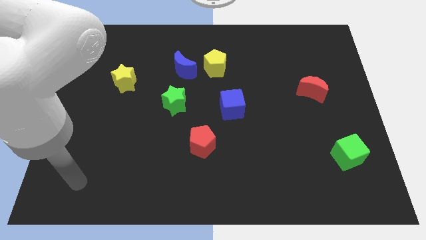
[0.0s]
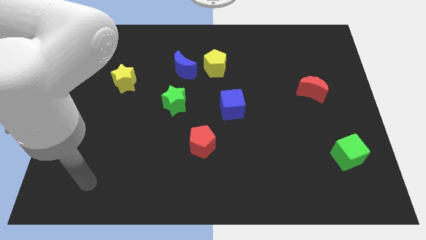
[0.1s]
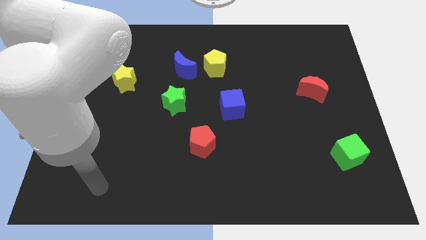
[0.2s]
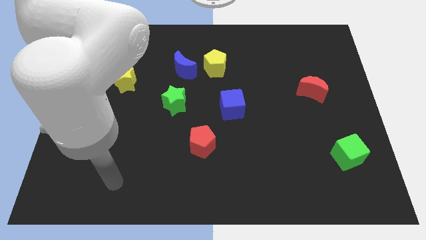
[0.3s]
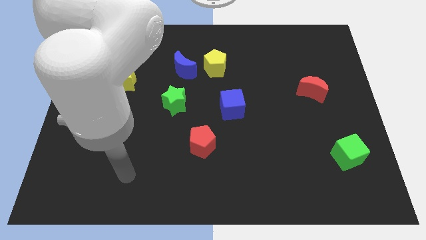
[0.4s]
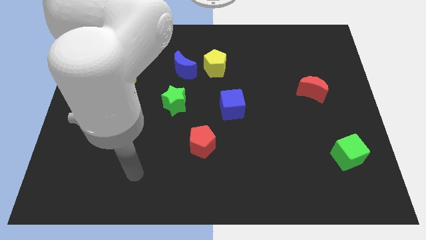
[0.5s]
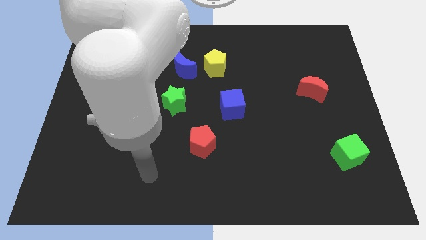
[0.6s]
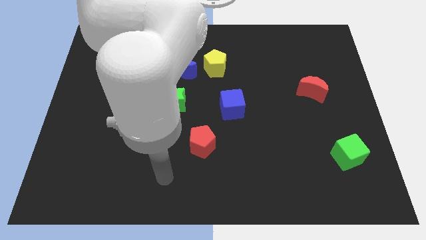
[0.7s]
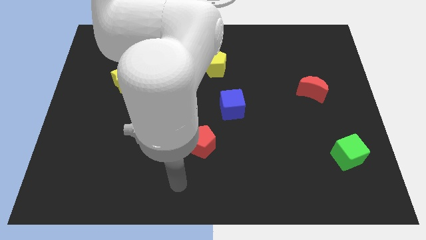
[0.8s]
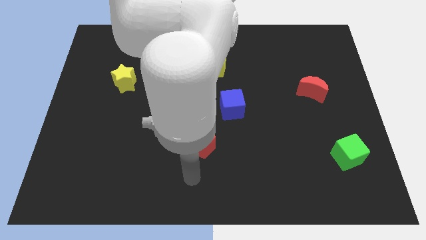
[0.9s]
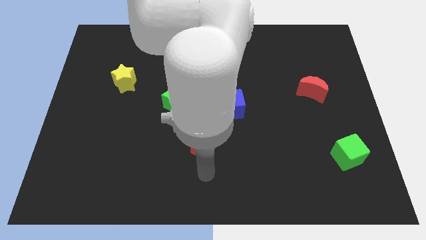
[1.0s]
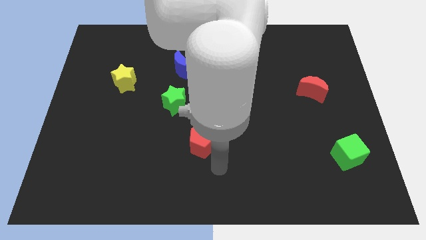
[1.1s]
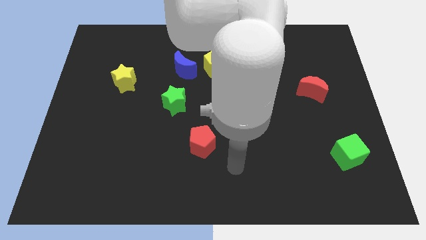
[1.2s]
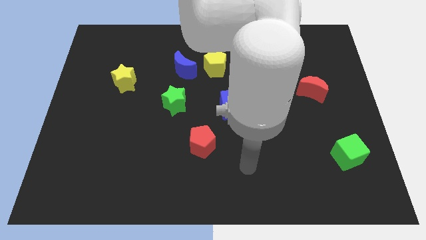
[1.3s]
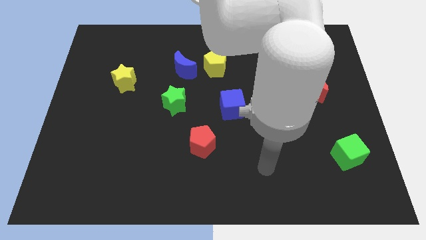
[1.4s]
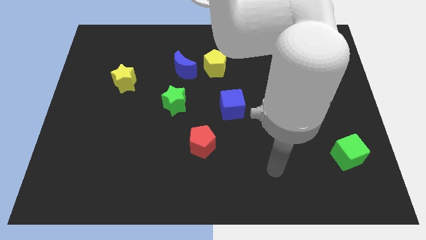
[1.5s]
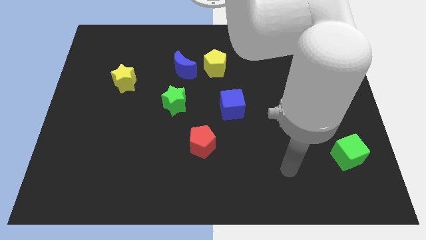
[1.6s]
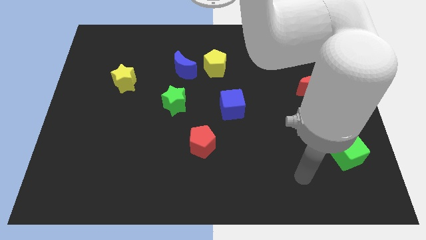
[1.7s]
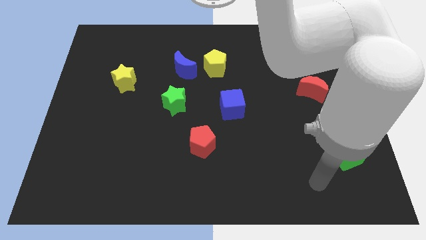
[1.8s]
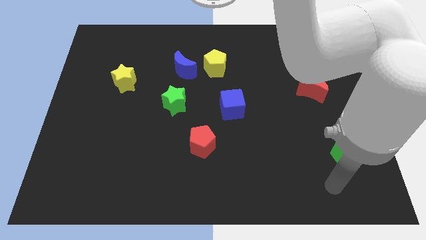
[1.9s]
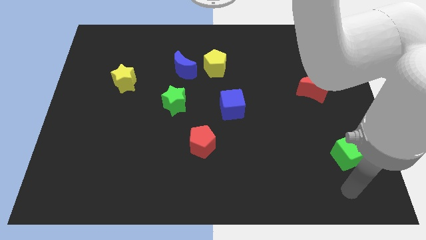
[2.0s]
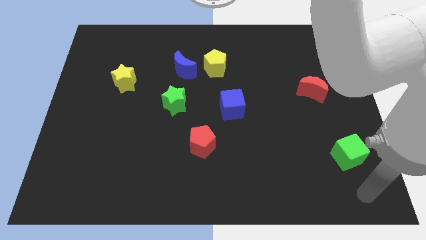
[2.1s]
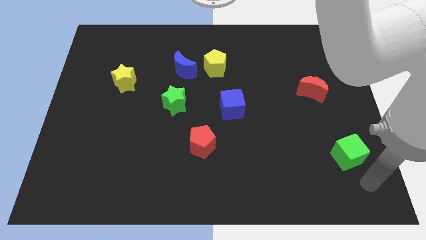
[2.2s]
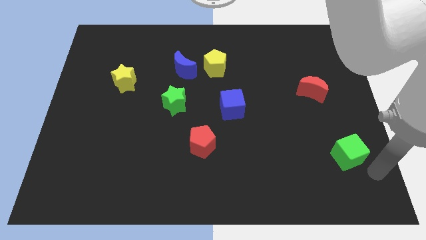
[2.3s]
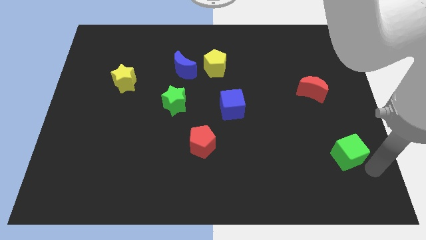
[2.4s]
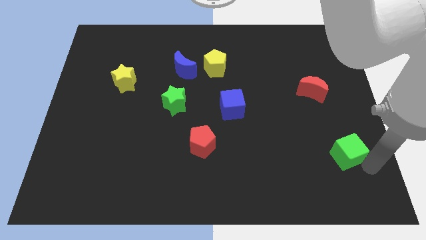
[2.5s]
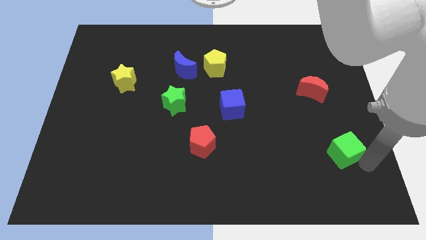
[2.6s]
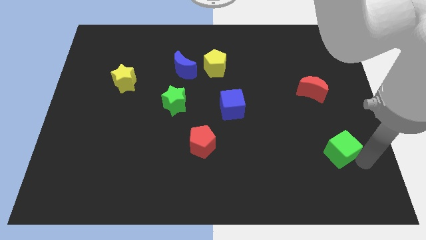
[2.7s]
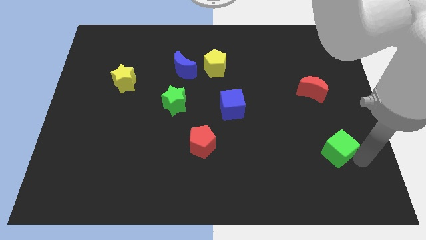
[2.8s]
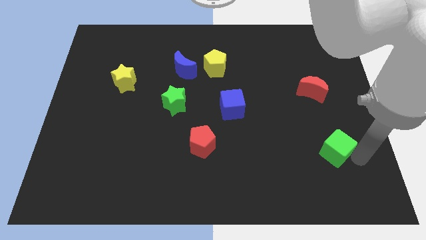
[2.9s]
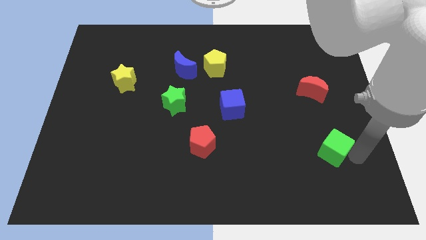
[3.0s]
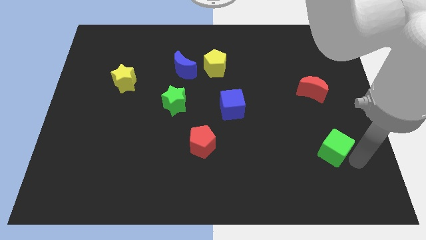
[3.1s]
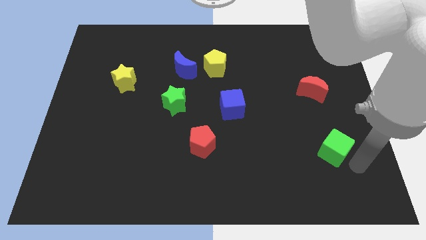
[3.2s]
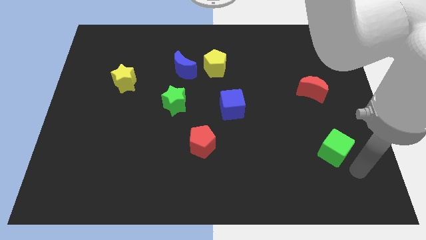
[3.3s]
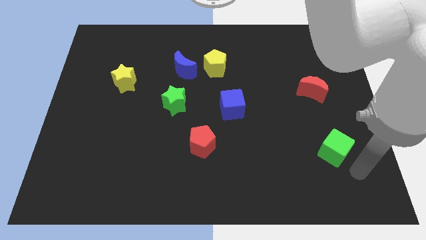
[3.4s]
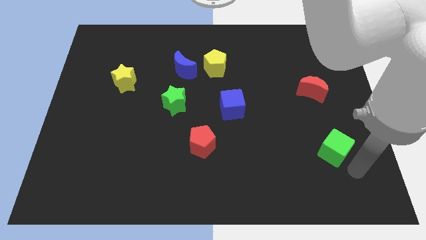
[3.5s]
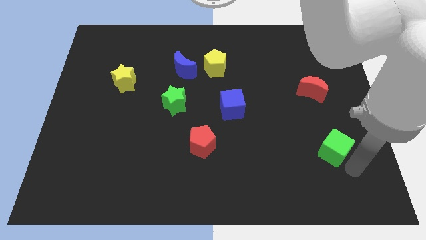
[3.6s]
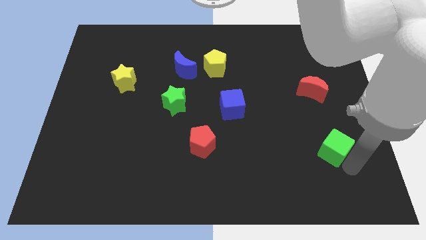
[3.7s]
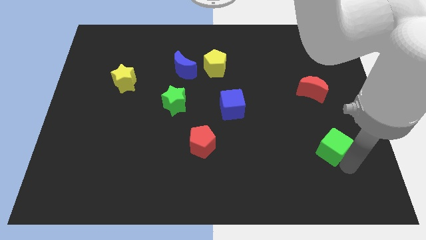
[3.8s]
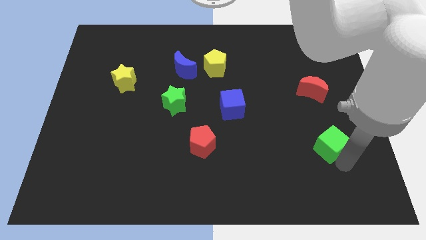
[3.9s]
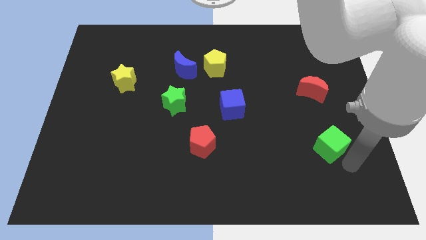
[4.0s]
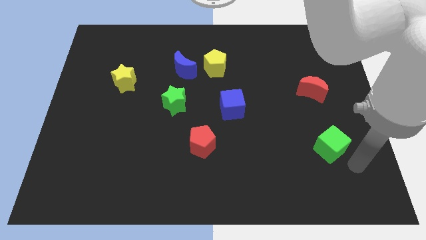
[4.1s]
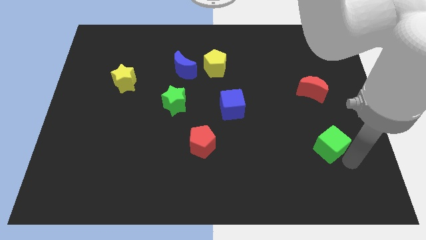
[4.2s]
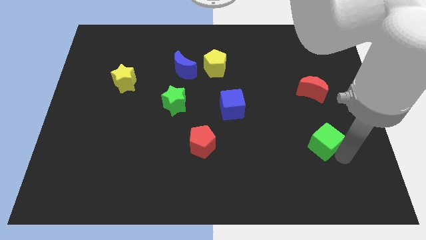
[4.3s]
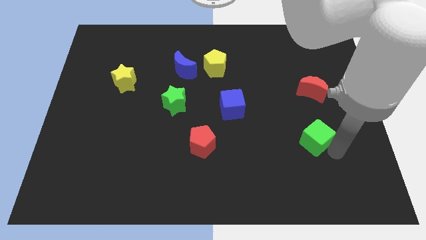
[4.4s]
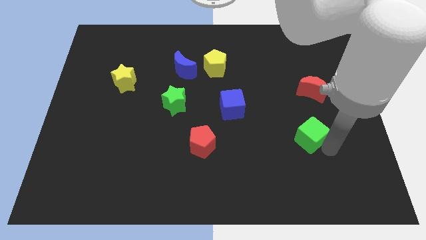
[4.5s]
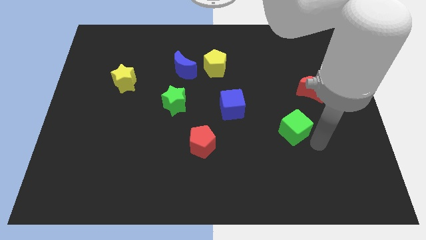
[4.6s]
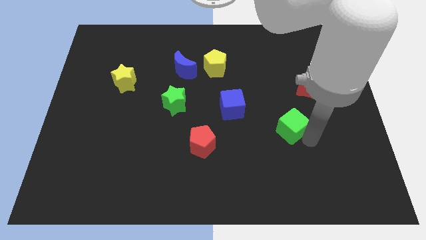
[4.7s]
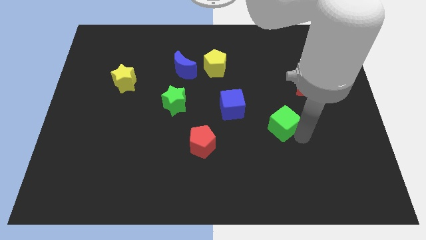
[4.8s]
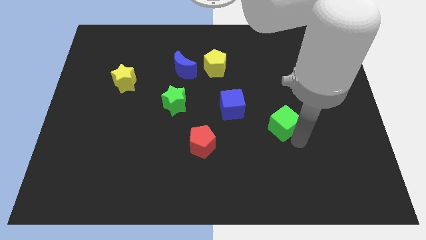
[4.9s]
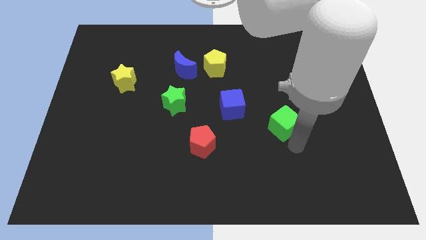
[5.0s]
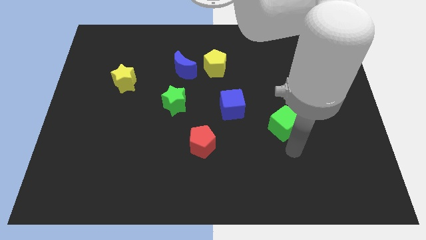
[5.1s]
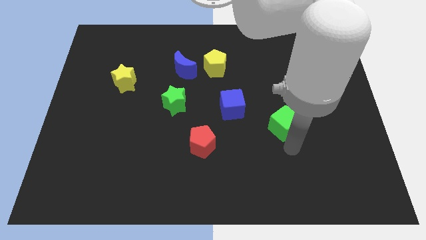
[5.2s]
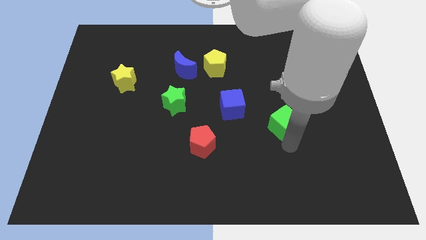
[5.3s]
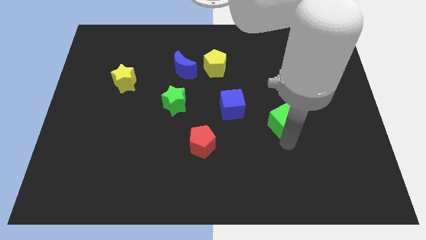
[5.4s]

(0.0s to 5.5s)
move the green cube to the right side of the blue cube

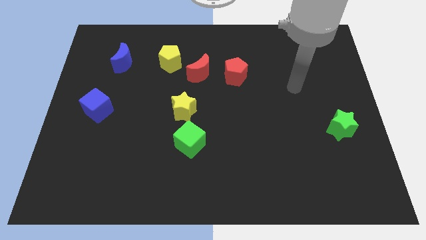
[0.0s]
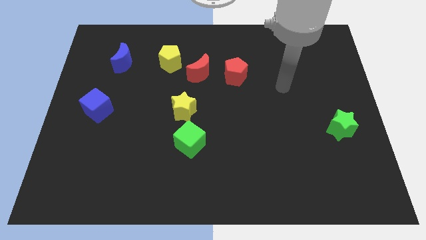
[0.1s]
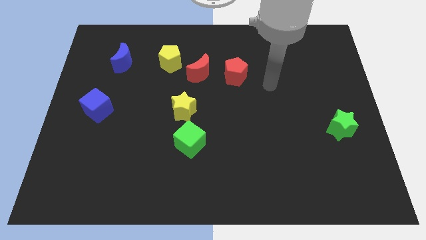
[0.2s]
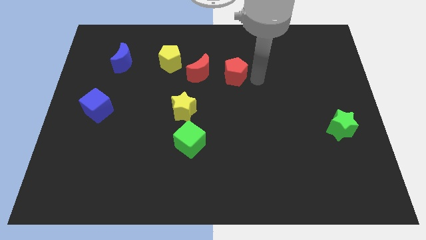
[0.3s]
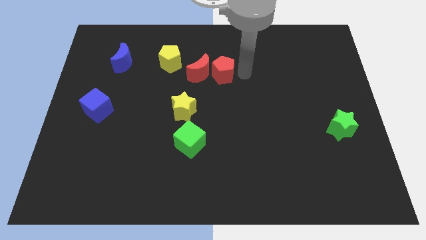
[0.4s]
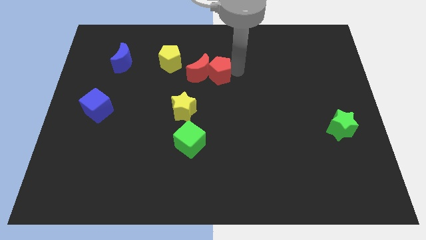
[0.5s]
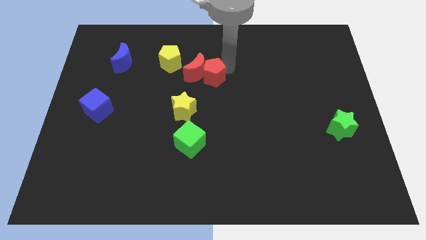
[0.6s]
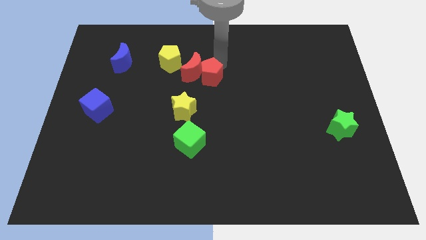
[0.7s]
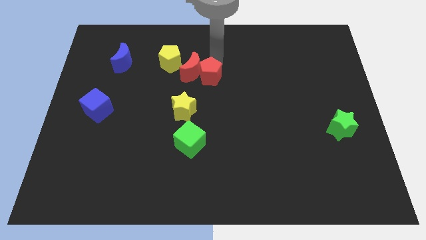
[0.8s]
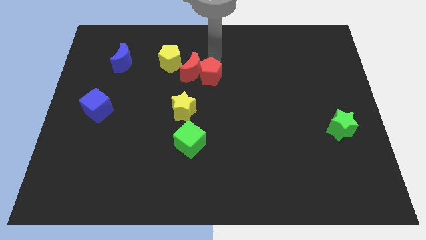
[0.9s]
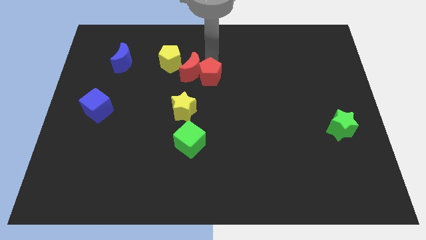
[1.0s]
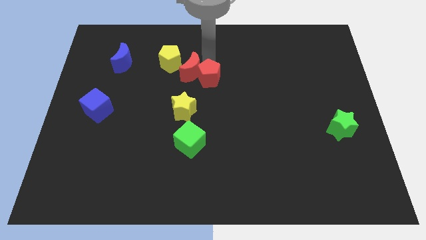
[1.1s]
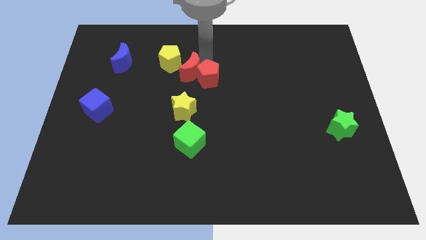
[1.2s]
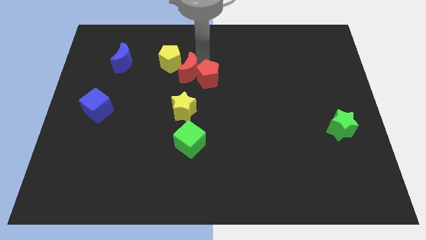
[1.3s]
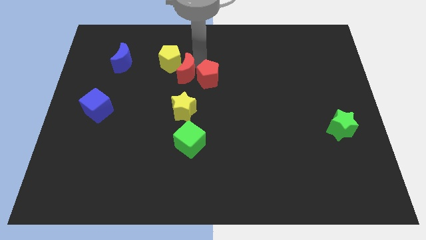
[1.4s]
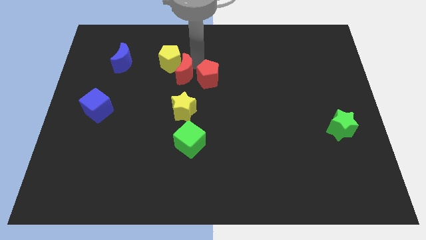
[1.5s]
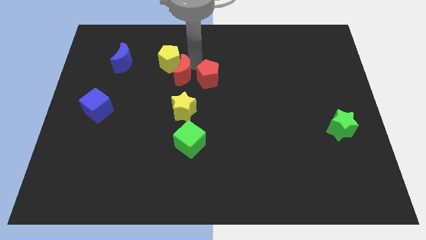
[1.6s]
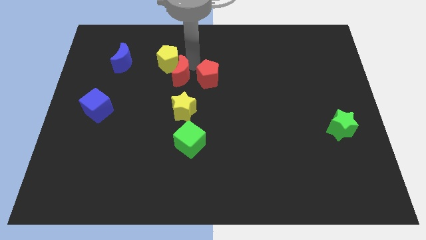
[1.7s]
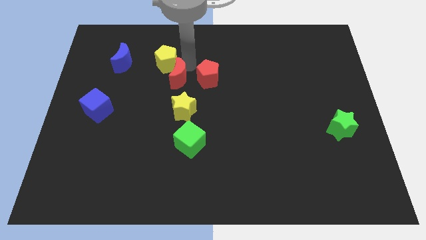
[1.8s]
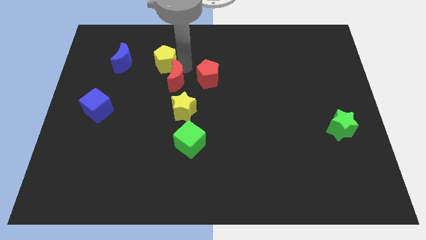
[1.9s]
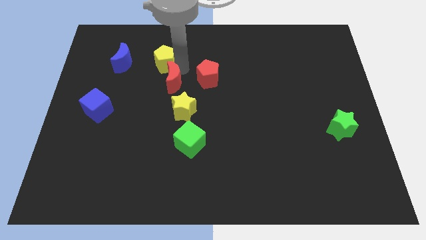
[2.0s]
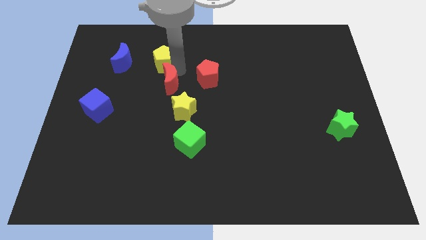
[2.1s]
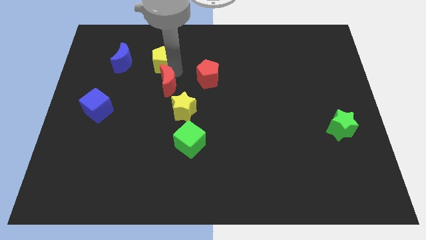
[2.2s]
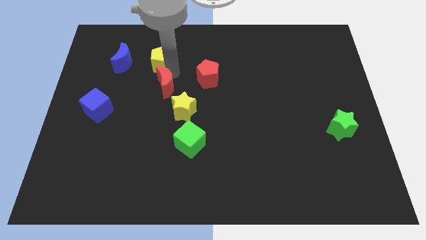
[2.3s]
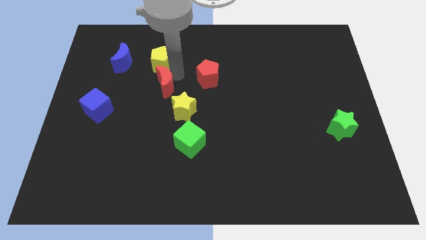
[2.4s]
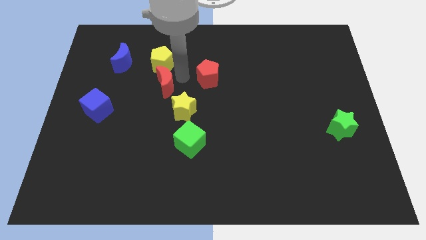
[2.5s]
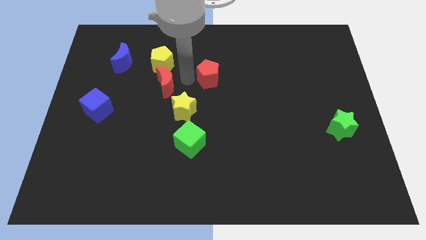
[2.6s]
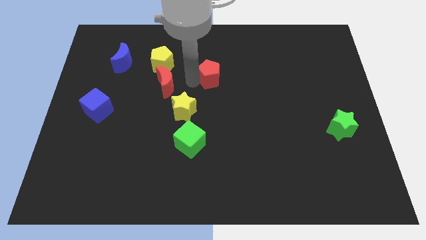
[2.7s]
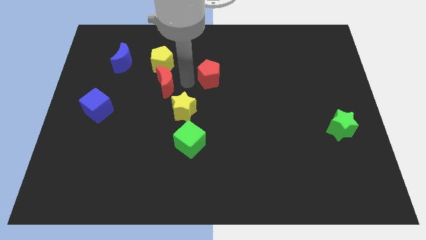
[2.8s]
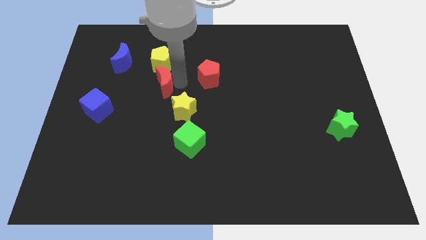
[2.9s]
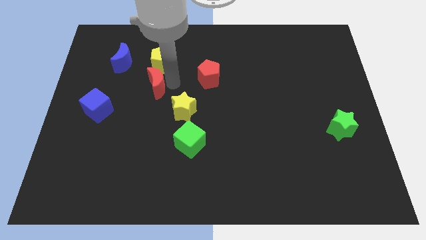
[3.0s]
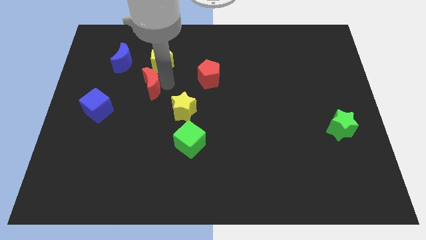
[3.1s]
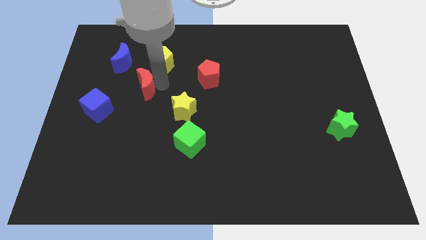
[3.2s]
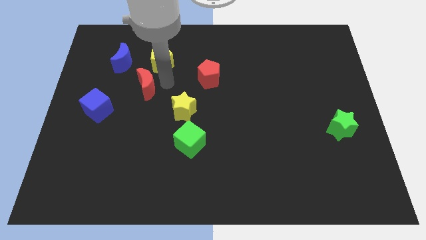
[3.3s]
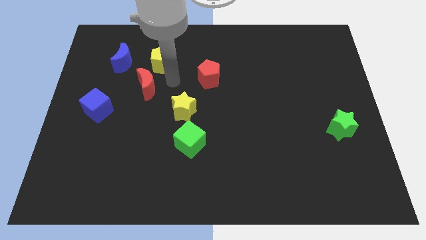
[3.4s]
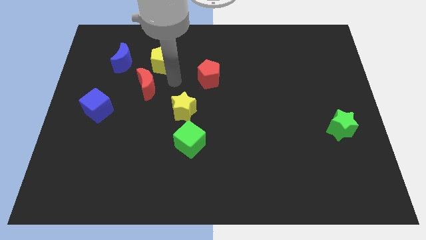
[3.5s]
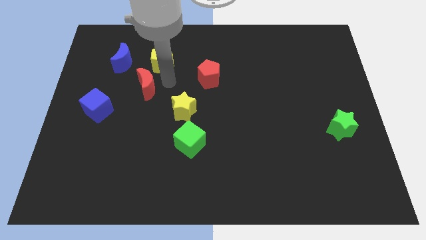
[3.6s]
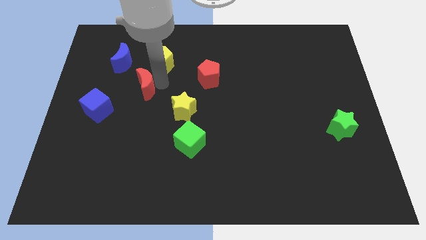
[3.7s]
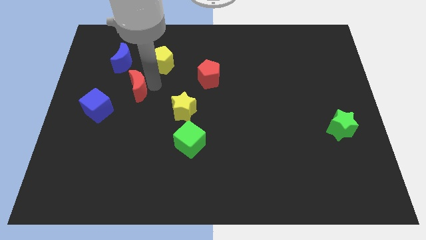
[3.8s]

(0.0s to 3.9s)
slide the red moon below the blue moon
